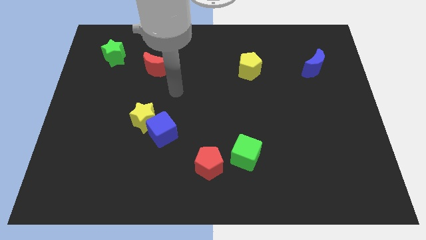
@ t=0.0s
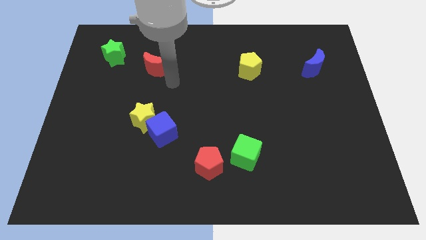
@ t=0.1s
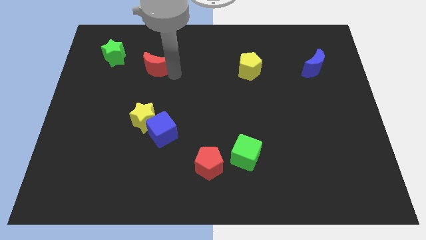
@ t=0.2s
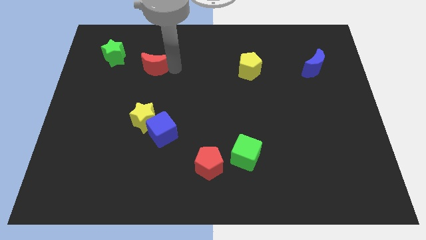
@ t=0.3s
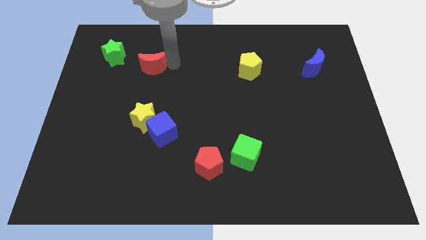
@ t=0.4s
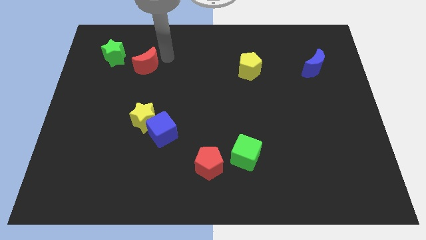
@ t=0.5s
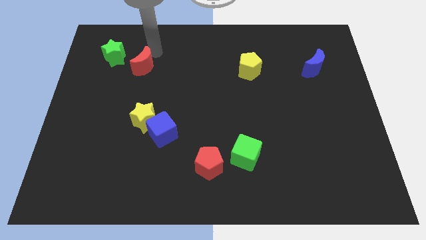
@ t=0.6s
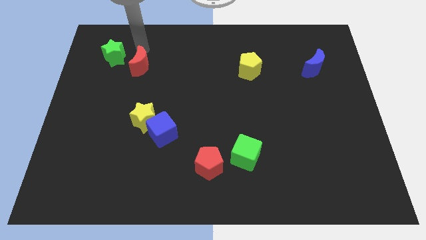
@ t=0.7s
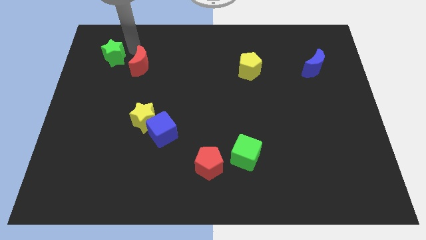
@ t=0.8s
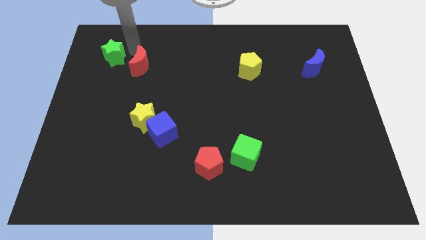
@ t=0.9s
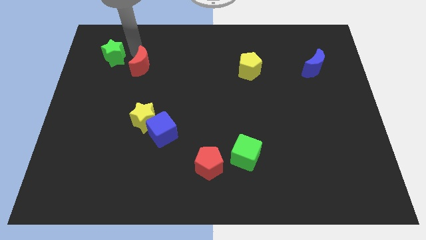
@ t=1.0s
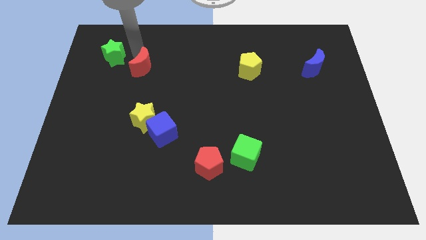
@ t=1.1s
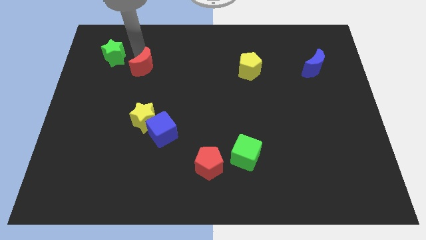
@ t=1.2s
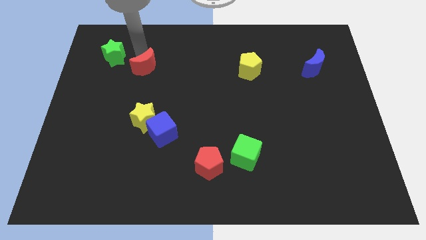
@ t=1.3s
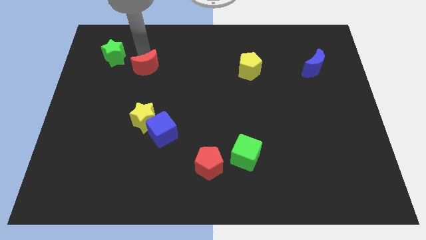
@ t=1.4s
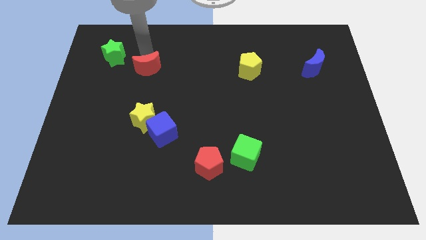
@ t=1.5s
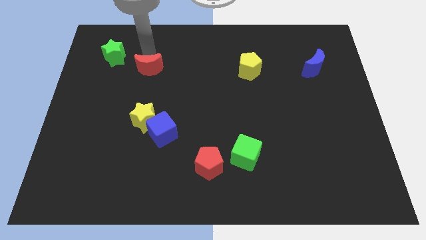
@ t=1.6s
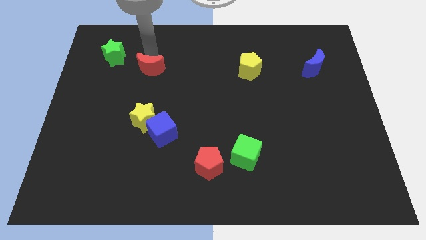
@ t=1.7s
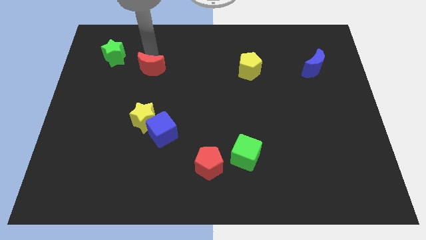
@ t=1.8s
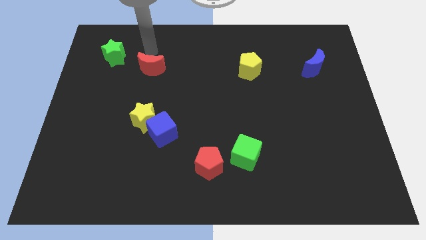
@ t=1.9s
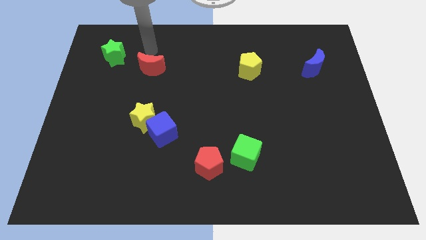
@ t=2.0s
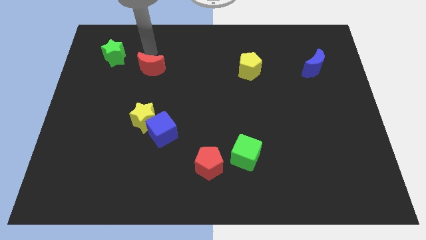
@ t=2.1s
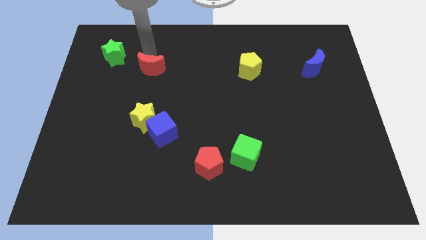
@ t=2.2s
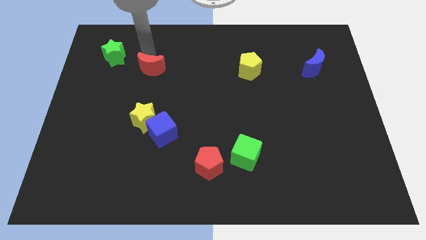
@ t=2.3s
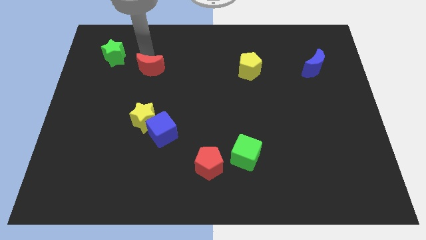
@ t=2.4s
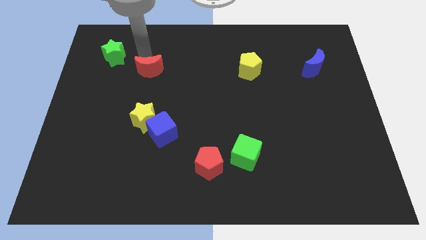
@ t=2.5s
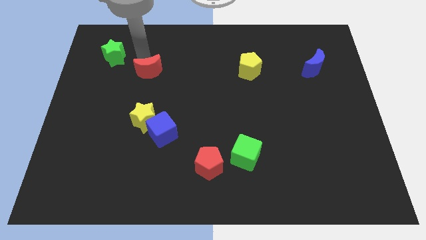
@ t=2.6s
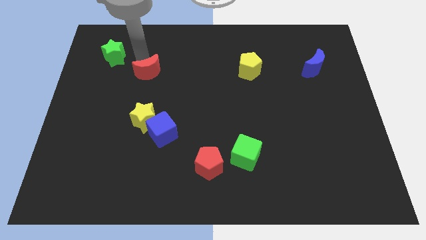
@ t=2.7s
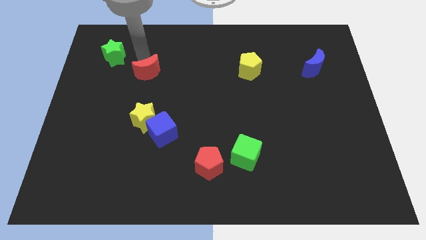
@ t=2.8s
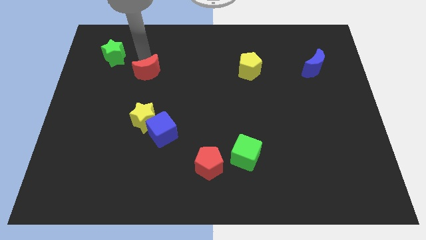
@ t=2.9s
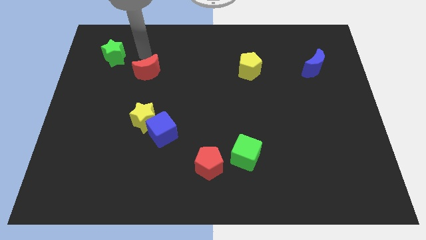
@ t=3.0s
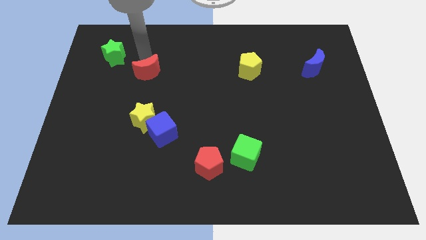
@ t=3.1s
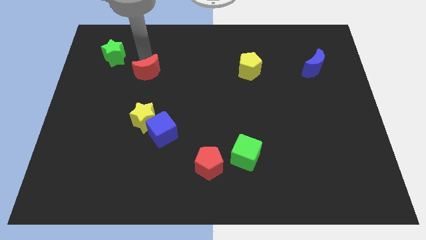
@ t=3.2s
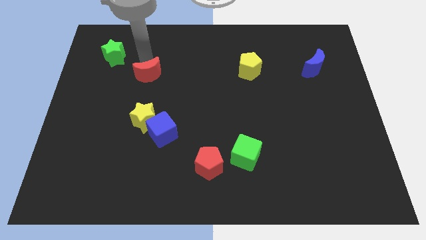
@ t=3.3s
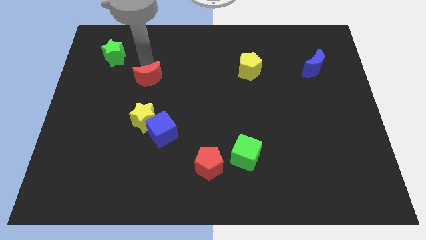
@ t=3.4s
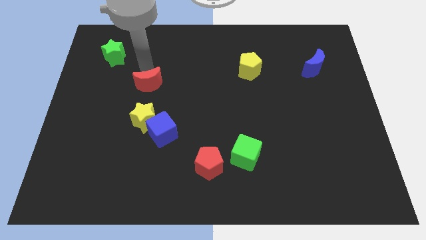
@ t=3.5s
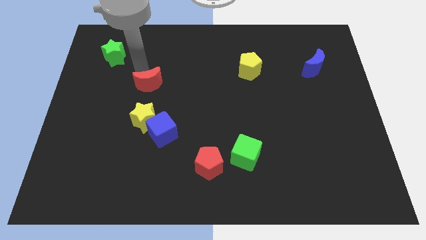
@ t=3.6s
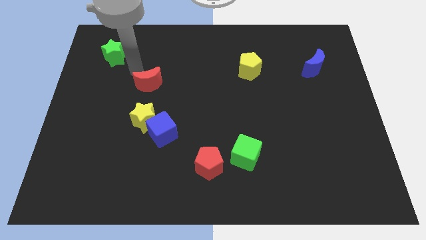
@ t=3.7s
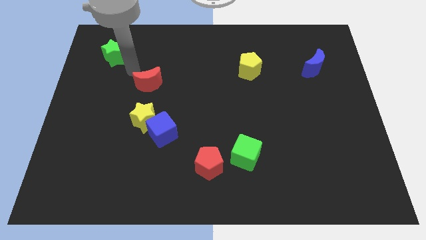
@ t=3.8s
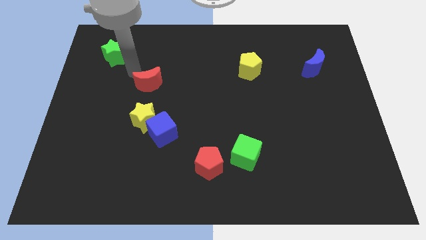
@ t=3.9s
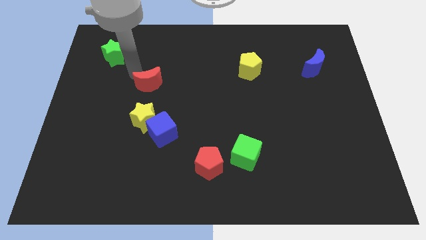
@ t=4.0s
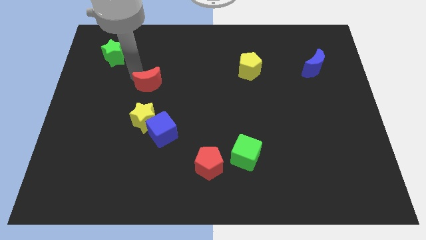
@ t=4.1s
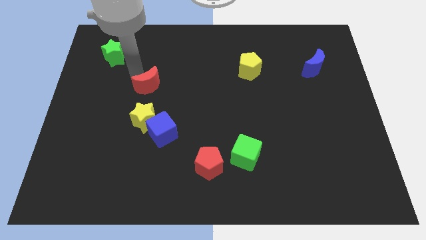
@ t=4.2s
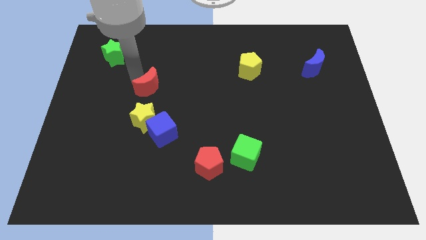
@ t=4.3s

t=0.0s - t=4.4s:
put the red moon to the top of the blue cube

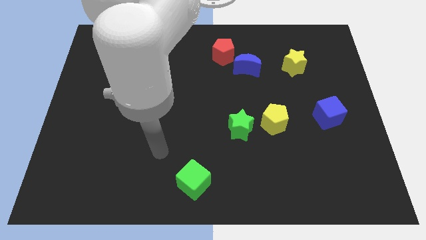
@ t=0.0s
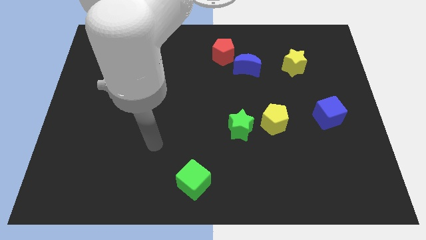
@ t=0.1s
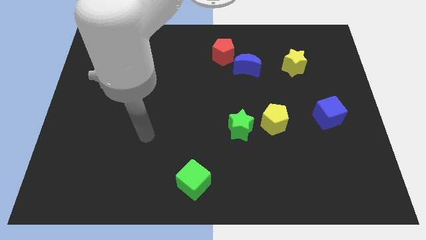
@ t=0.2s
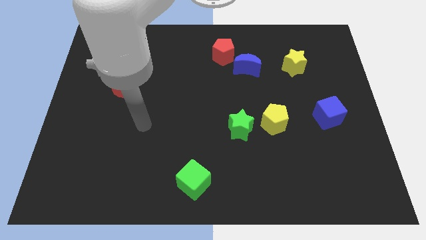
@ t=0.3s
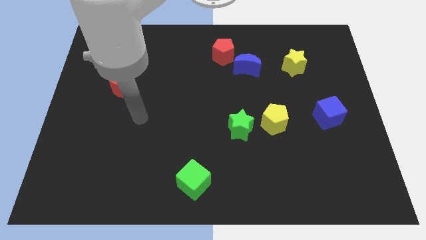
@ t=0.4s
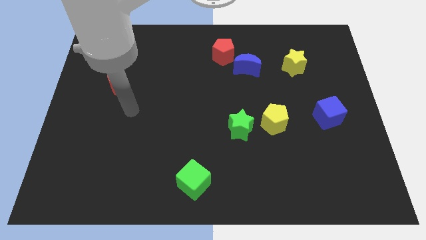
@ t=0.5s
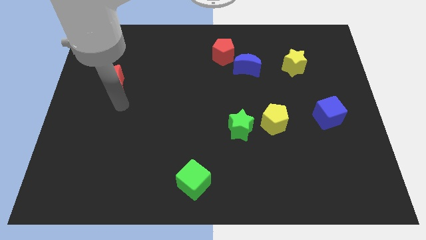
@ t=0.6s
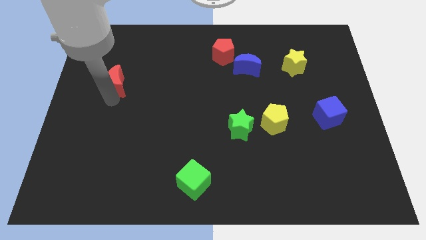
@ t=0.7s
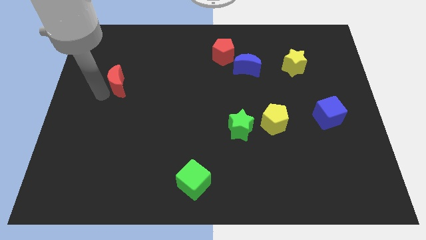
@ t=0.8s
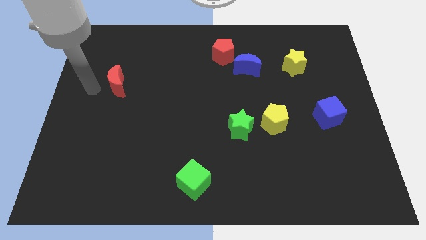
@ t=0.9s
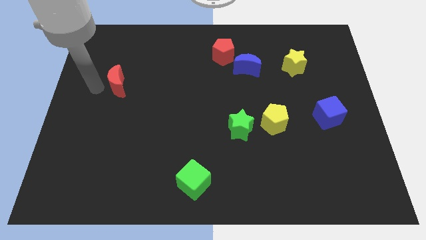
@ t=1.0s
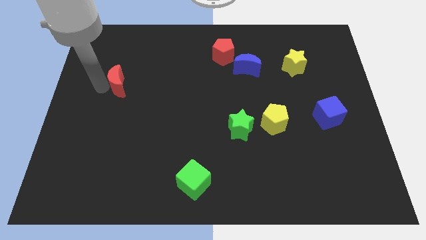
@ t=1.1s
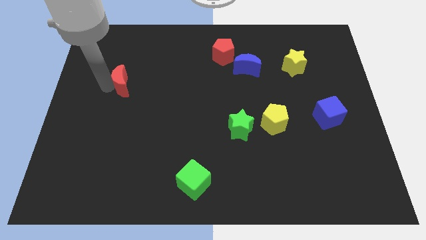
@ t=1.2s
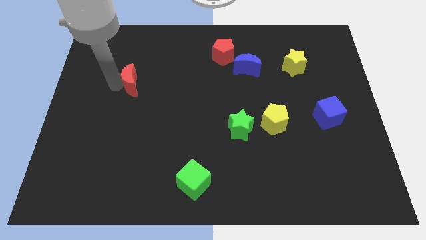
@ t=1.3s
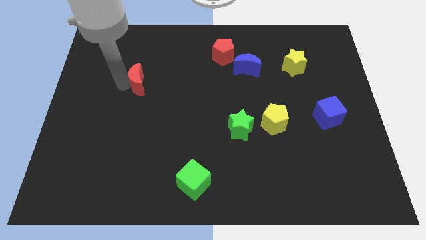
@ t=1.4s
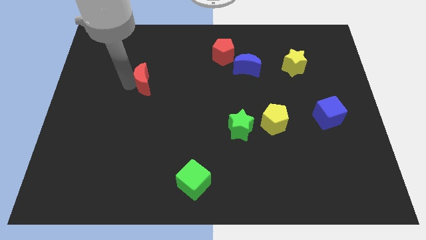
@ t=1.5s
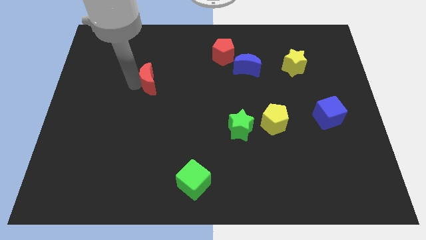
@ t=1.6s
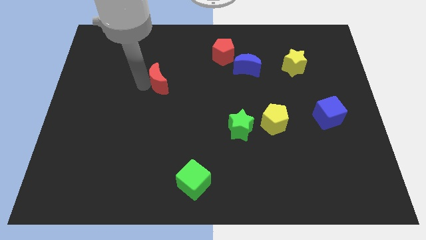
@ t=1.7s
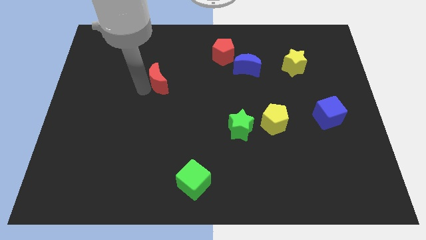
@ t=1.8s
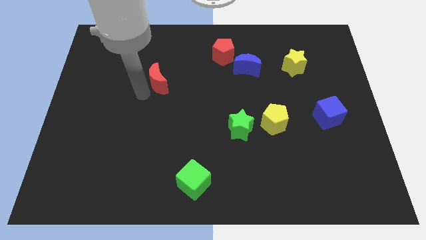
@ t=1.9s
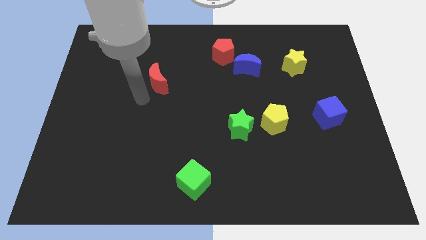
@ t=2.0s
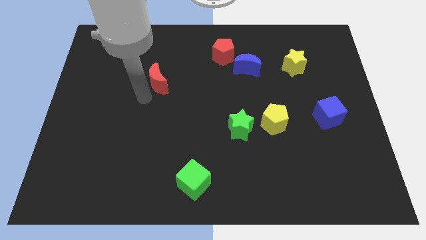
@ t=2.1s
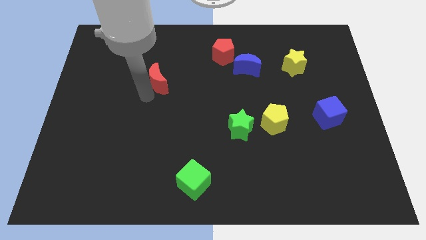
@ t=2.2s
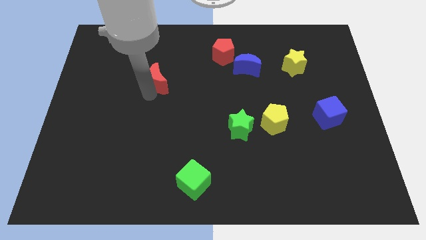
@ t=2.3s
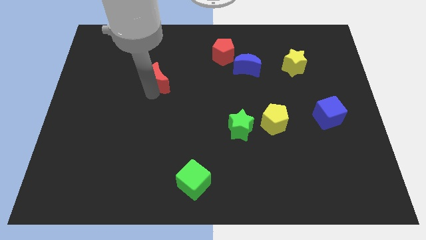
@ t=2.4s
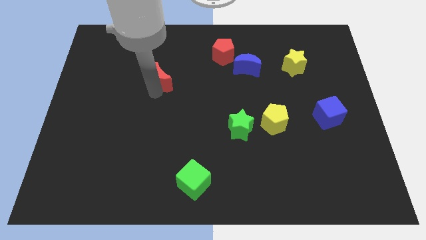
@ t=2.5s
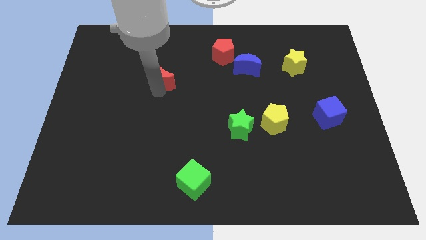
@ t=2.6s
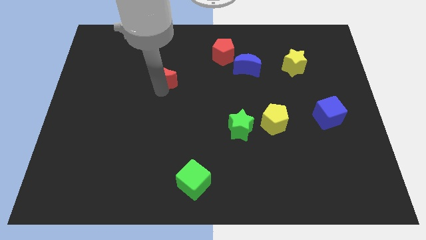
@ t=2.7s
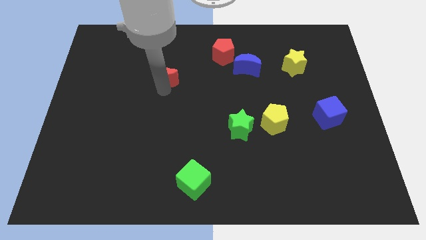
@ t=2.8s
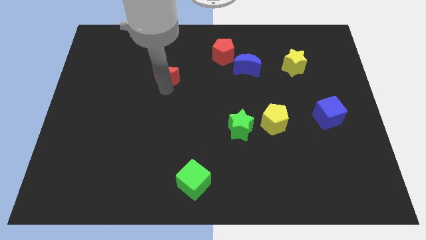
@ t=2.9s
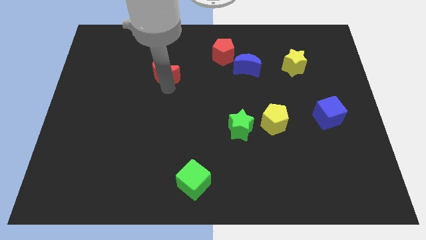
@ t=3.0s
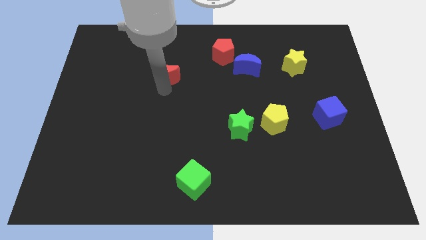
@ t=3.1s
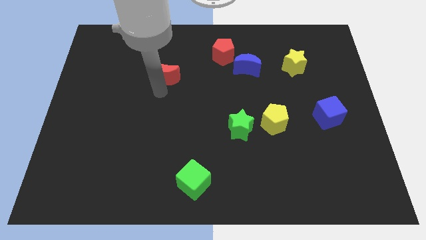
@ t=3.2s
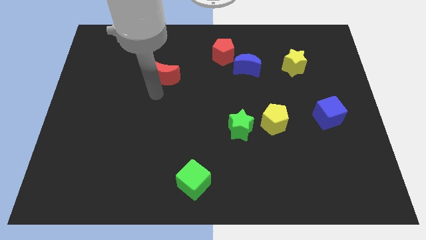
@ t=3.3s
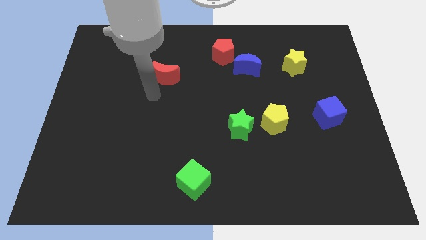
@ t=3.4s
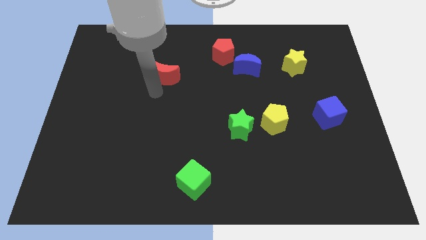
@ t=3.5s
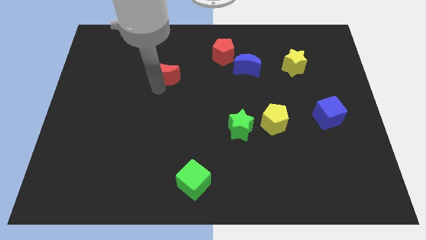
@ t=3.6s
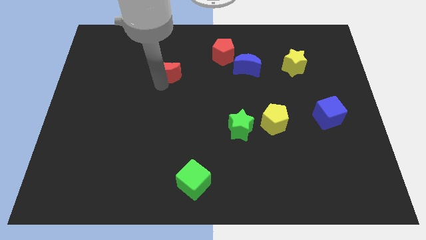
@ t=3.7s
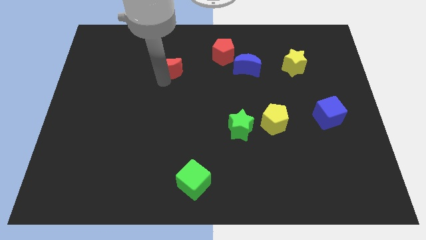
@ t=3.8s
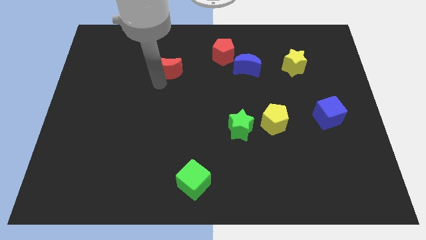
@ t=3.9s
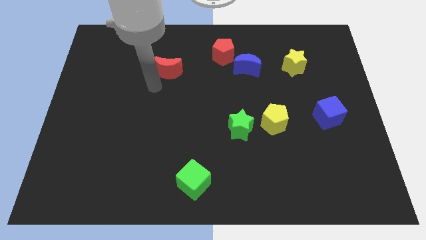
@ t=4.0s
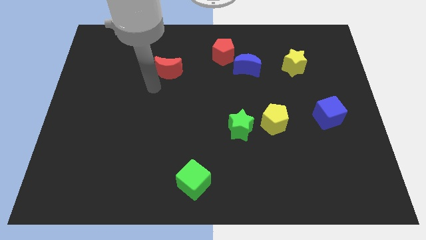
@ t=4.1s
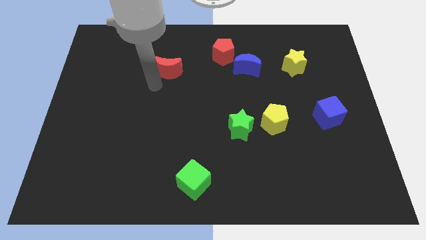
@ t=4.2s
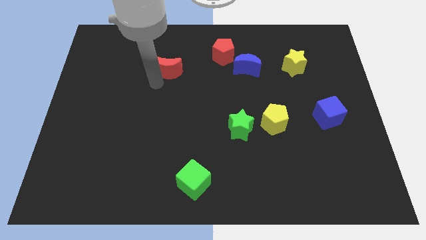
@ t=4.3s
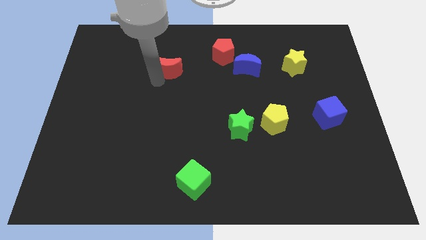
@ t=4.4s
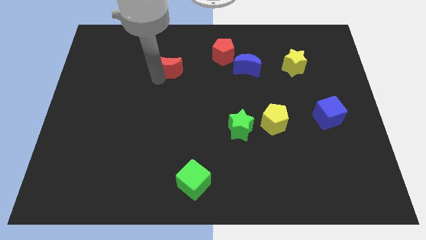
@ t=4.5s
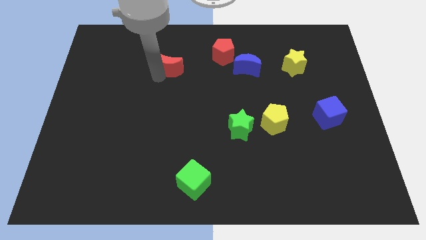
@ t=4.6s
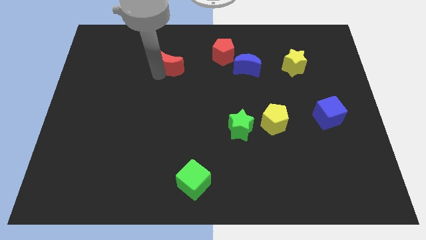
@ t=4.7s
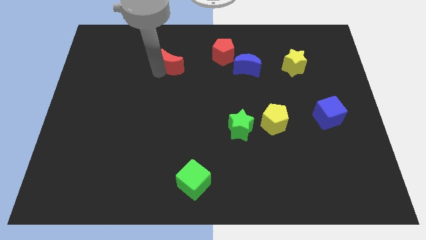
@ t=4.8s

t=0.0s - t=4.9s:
push the red moon just left of the red pentagon
